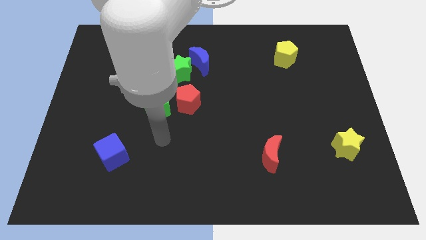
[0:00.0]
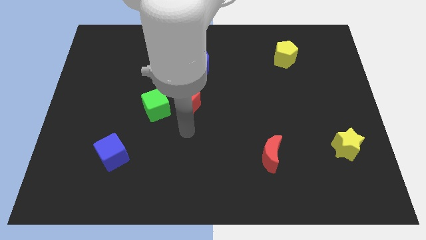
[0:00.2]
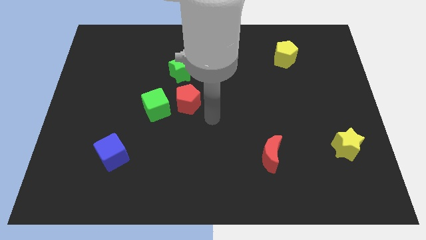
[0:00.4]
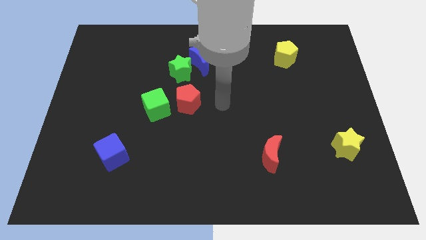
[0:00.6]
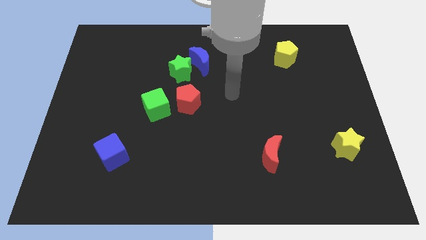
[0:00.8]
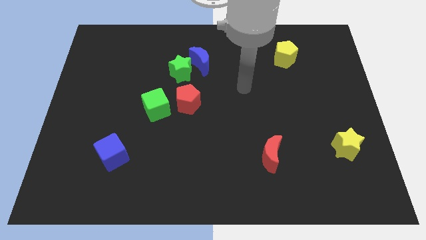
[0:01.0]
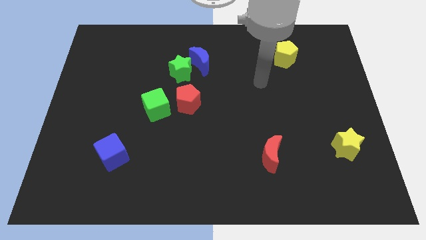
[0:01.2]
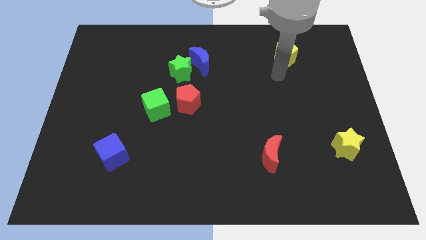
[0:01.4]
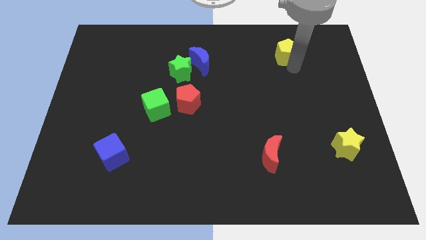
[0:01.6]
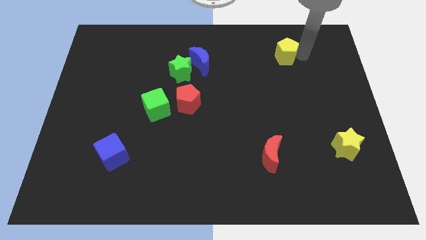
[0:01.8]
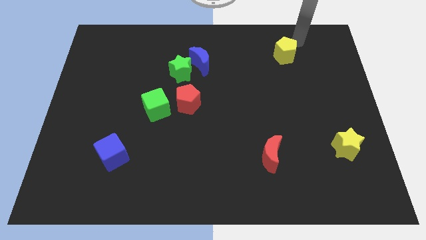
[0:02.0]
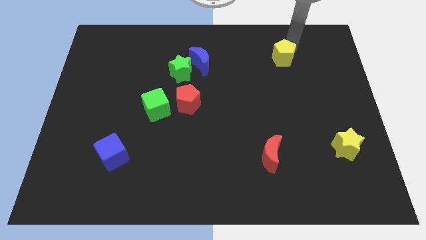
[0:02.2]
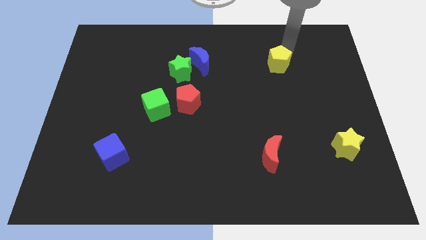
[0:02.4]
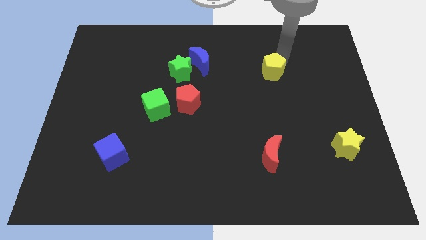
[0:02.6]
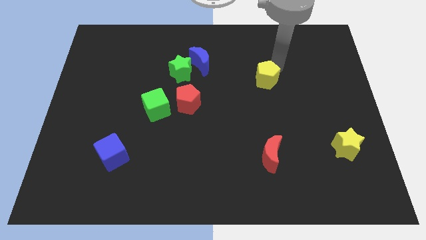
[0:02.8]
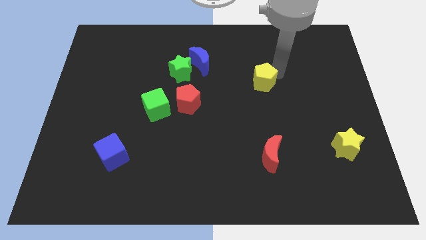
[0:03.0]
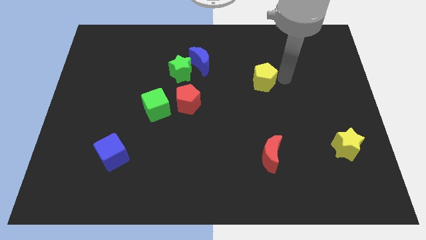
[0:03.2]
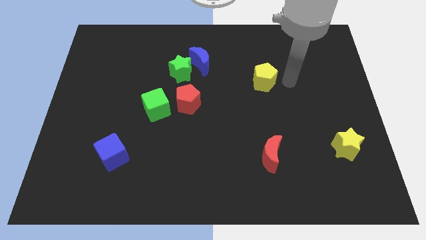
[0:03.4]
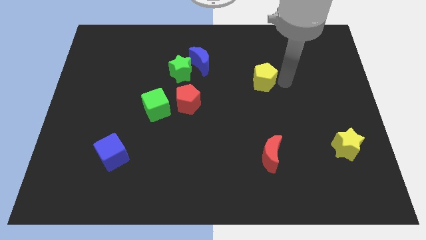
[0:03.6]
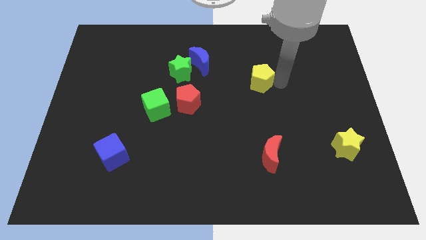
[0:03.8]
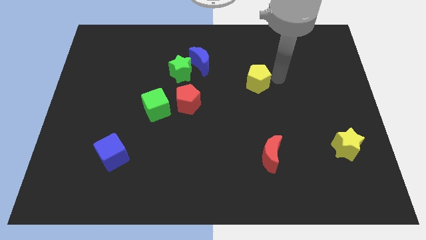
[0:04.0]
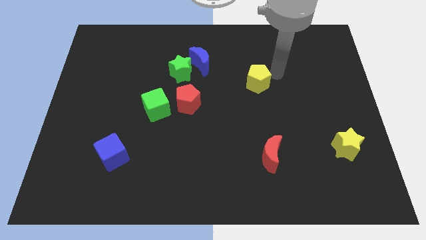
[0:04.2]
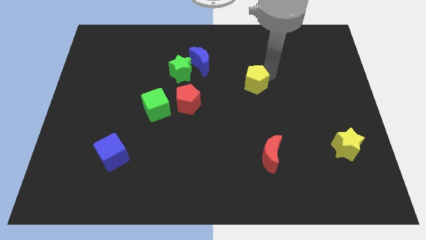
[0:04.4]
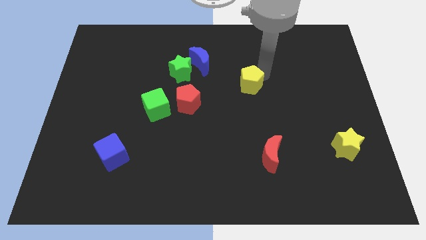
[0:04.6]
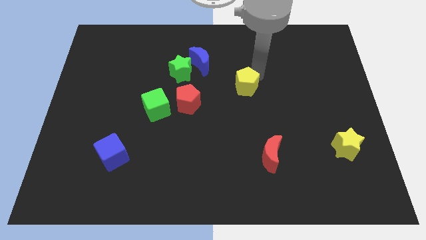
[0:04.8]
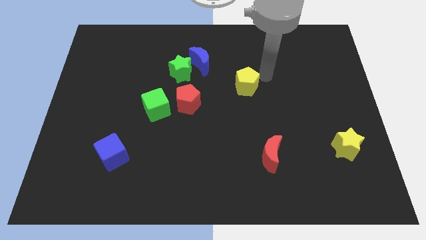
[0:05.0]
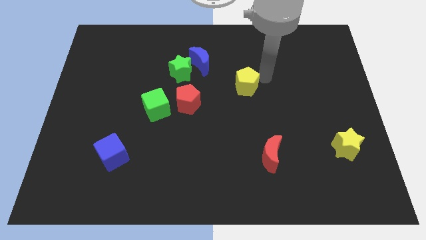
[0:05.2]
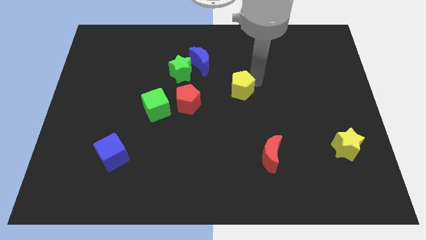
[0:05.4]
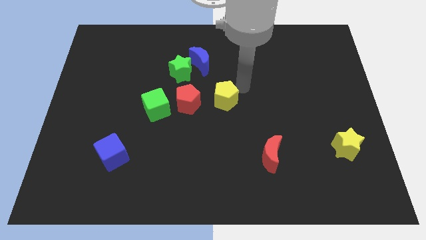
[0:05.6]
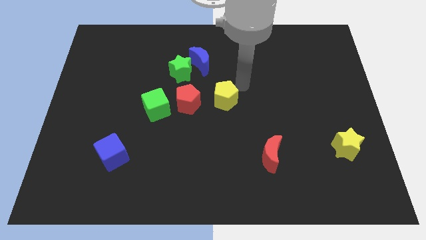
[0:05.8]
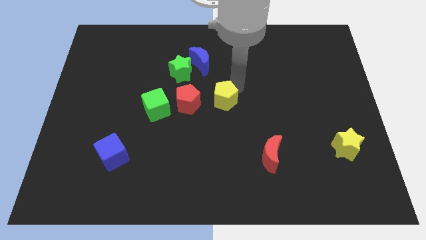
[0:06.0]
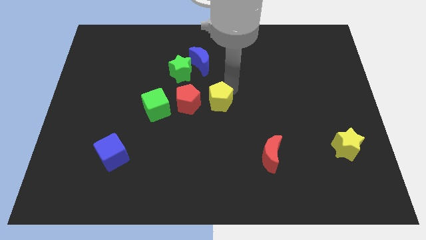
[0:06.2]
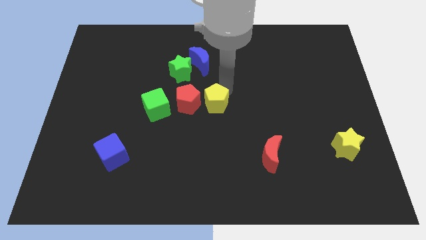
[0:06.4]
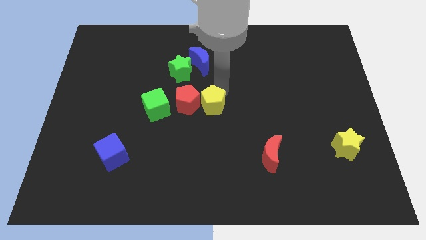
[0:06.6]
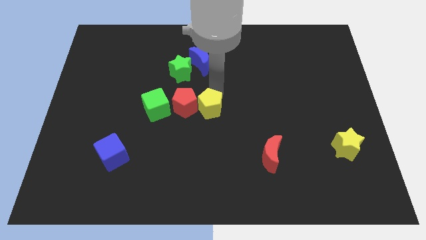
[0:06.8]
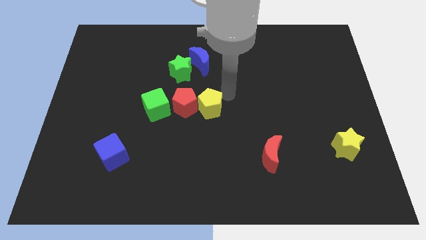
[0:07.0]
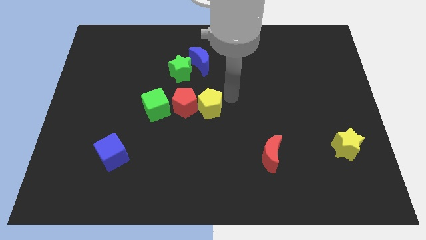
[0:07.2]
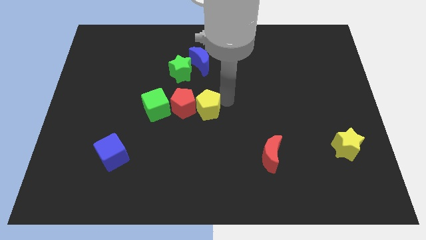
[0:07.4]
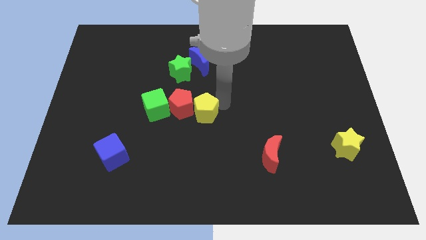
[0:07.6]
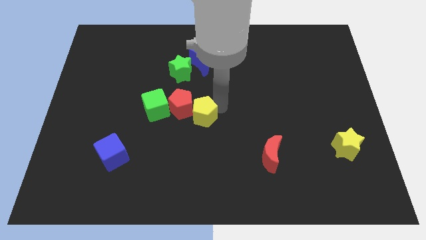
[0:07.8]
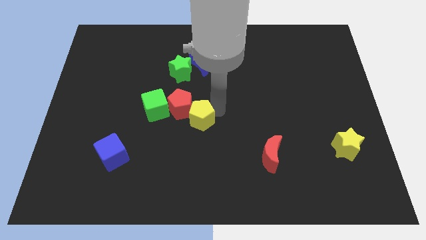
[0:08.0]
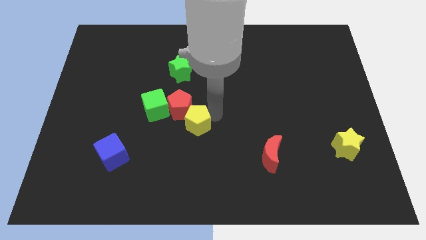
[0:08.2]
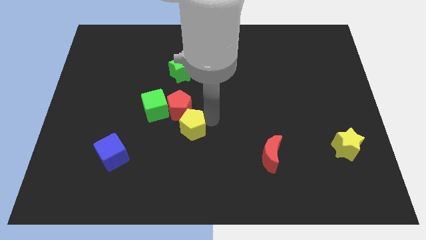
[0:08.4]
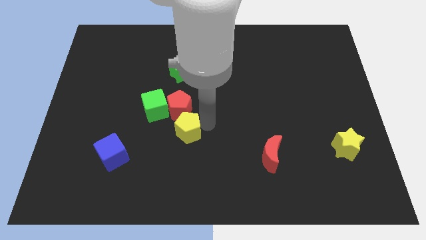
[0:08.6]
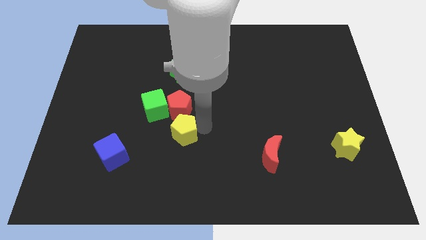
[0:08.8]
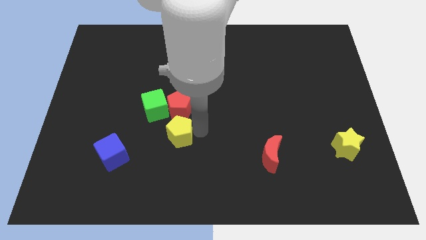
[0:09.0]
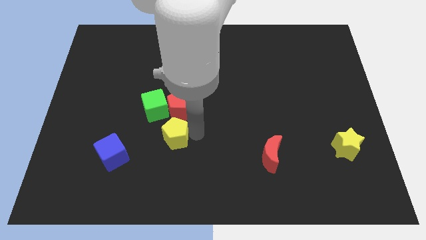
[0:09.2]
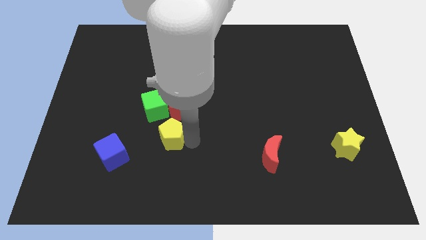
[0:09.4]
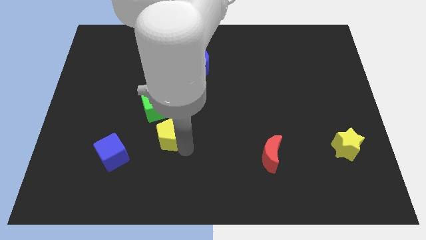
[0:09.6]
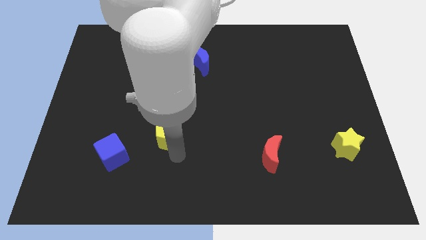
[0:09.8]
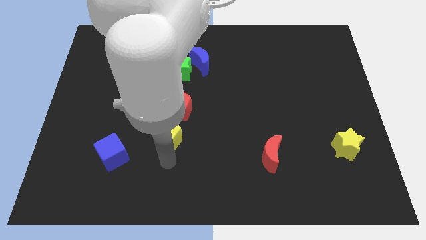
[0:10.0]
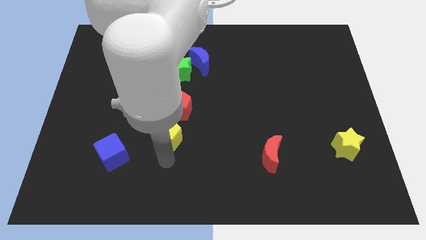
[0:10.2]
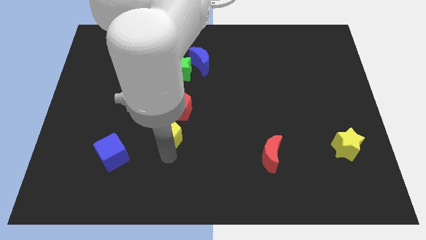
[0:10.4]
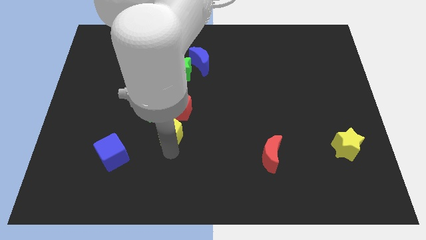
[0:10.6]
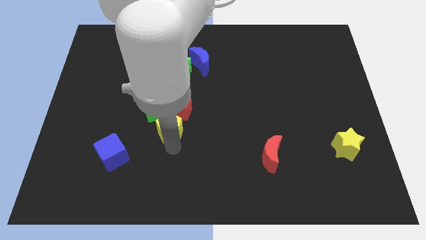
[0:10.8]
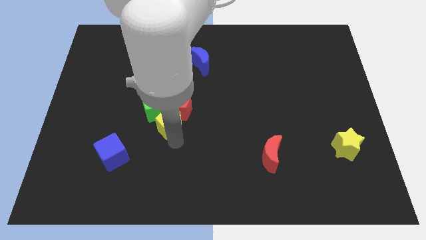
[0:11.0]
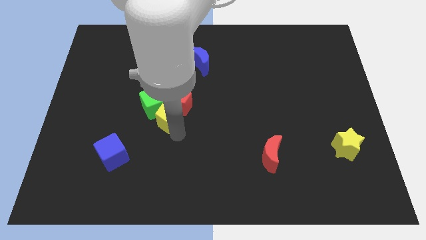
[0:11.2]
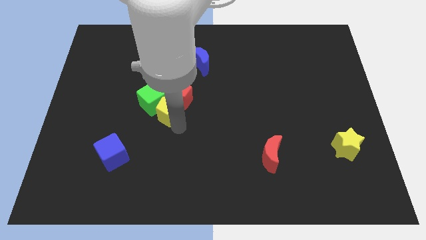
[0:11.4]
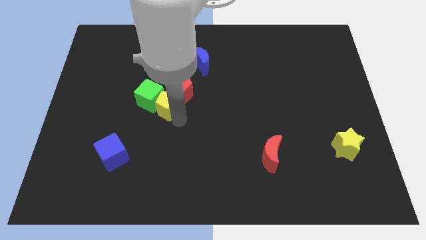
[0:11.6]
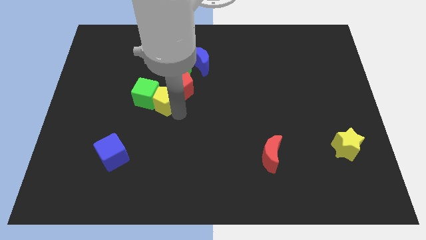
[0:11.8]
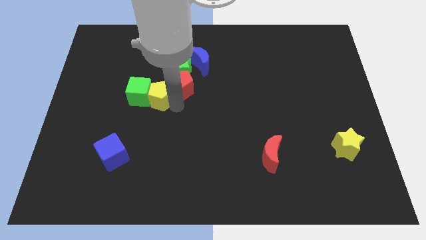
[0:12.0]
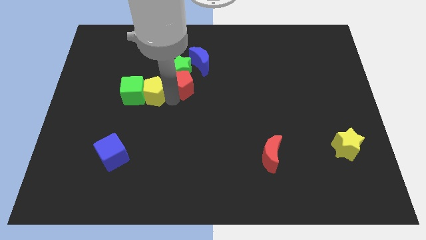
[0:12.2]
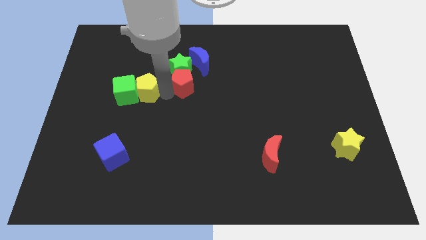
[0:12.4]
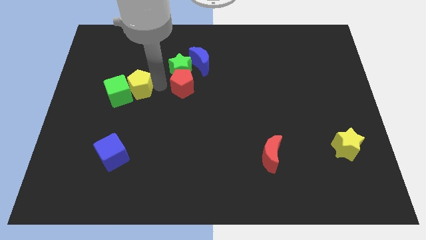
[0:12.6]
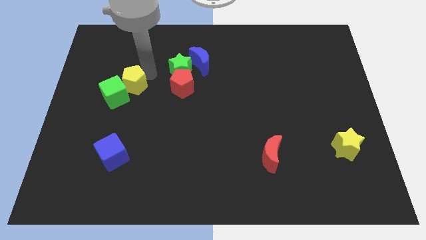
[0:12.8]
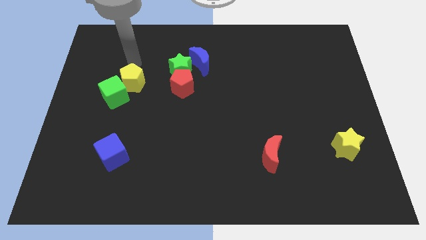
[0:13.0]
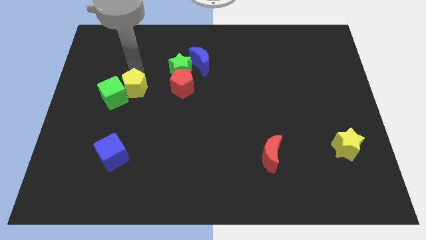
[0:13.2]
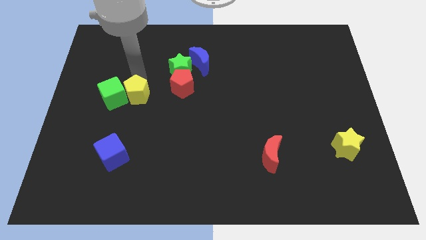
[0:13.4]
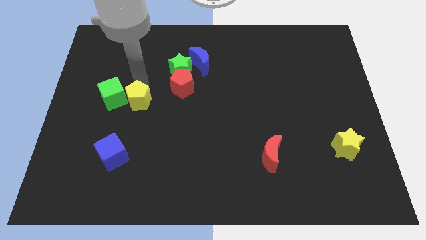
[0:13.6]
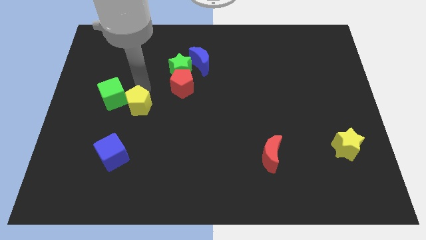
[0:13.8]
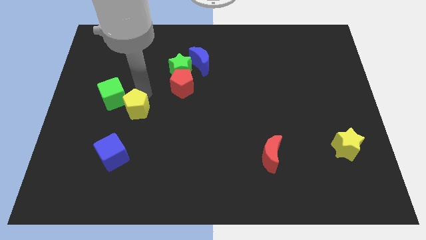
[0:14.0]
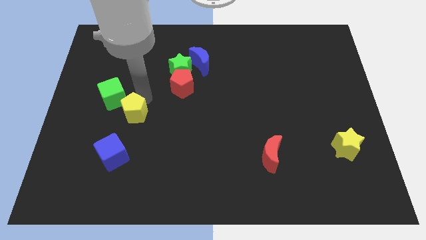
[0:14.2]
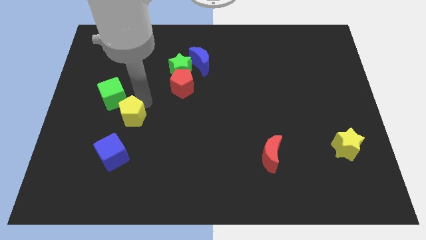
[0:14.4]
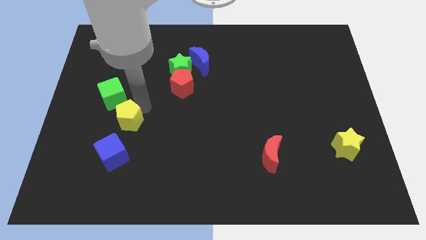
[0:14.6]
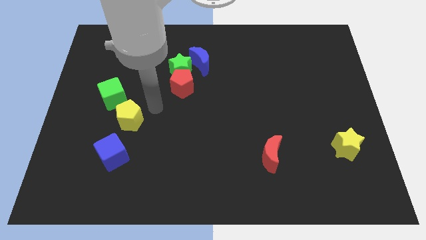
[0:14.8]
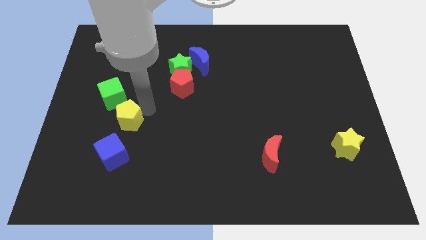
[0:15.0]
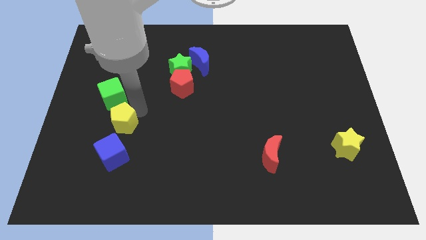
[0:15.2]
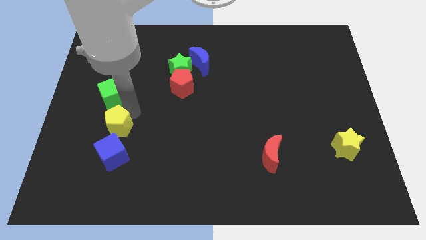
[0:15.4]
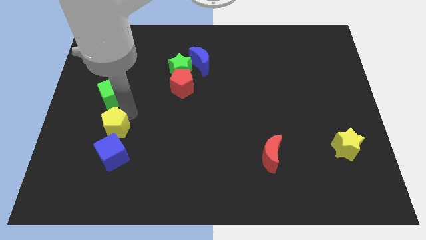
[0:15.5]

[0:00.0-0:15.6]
put the yellow pentagon to the top left side of the blue cube

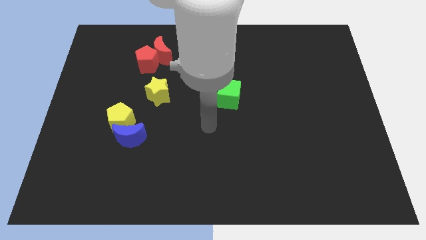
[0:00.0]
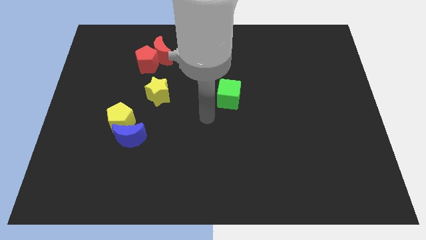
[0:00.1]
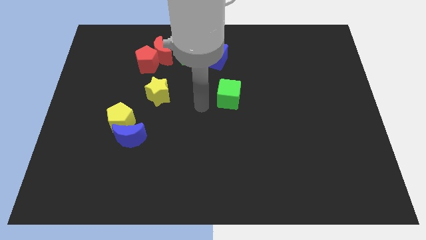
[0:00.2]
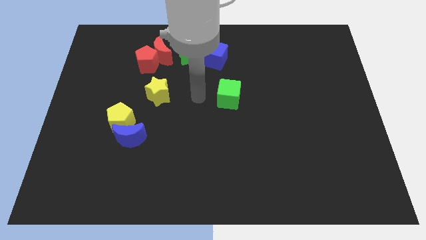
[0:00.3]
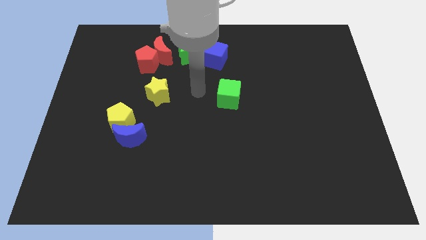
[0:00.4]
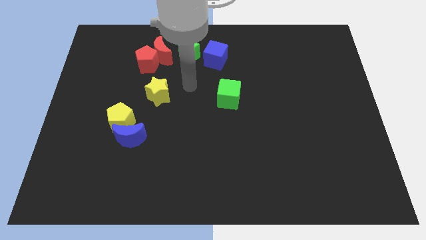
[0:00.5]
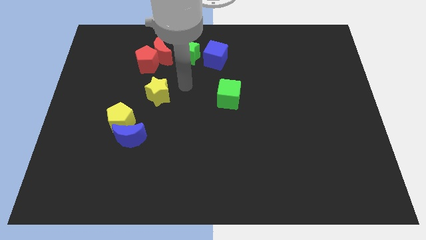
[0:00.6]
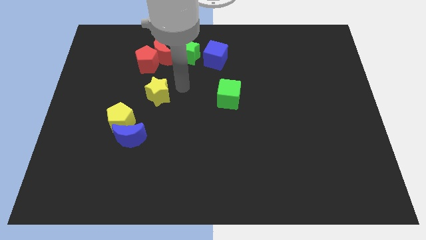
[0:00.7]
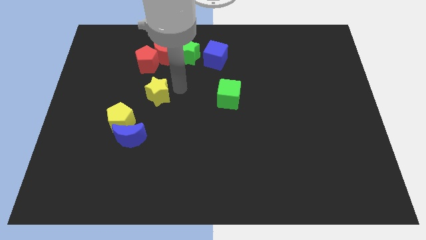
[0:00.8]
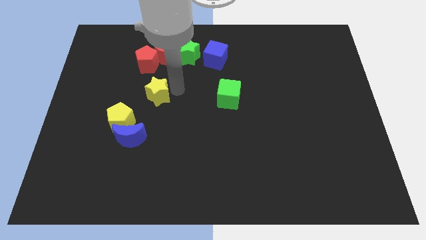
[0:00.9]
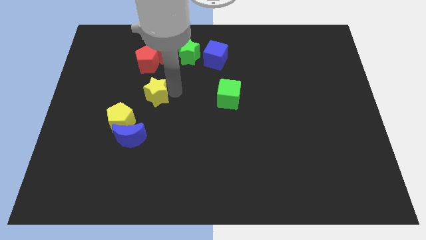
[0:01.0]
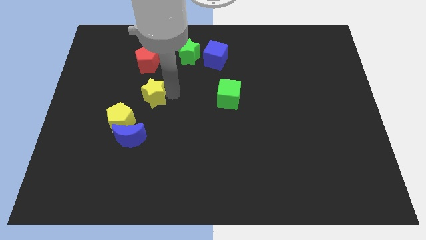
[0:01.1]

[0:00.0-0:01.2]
move the yellow star above the blue moon
